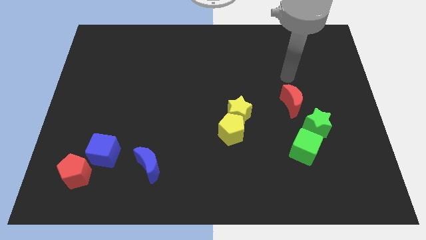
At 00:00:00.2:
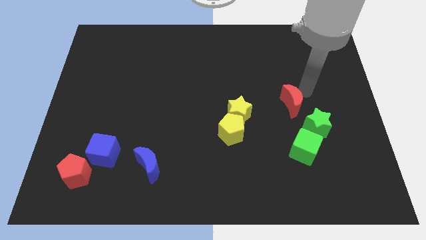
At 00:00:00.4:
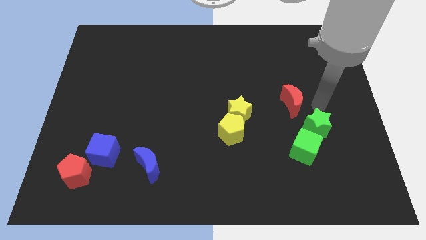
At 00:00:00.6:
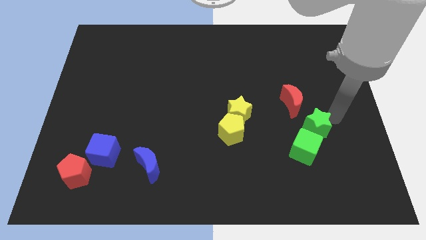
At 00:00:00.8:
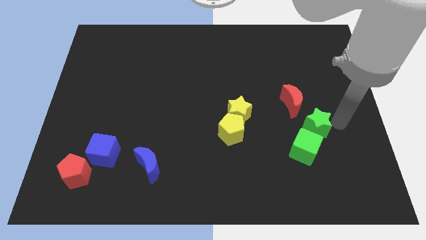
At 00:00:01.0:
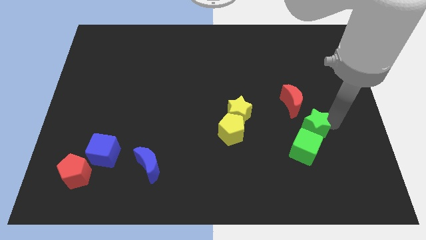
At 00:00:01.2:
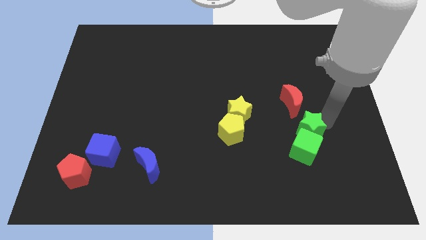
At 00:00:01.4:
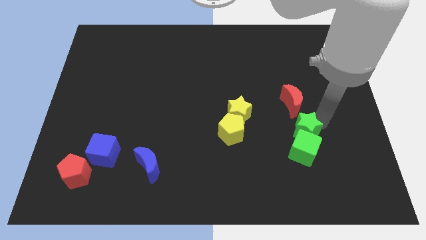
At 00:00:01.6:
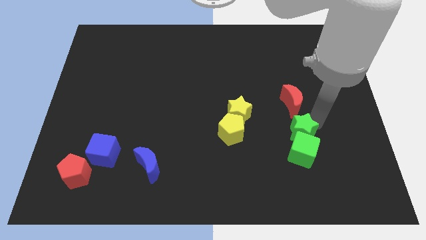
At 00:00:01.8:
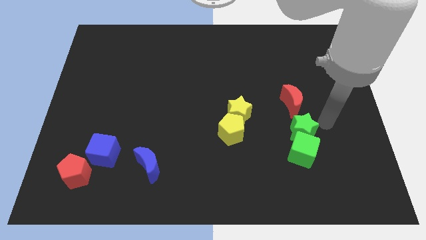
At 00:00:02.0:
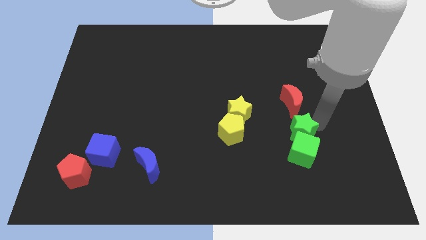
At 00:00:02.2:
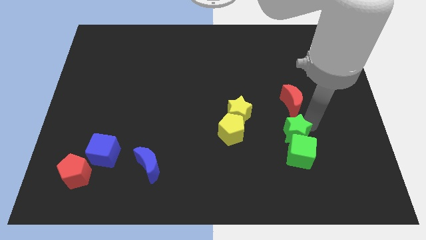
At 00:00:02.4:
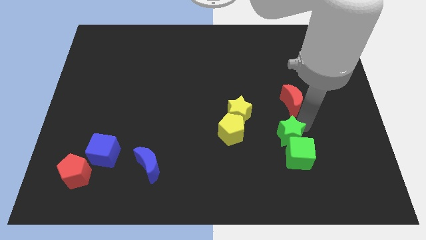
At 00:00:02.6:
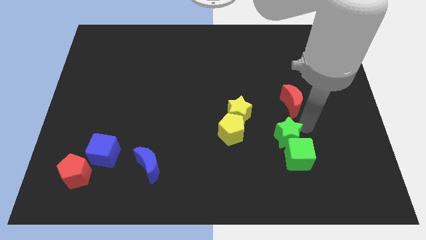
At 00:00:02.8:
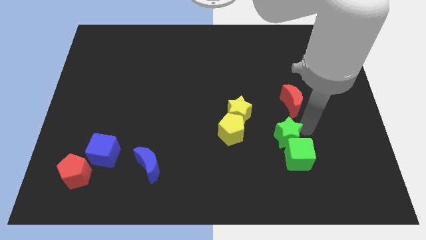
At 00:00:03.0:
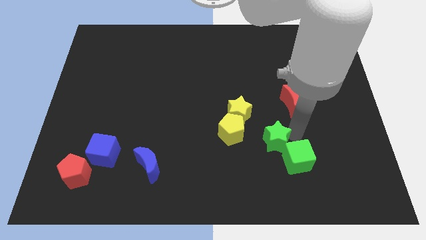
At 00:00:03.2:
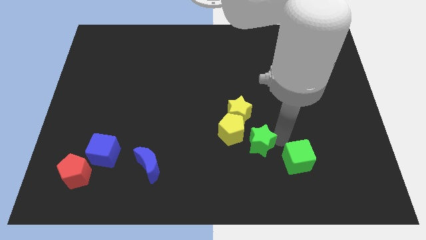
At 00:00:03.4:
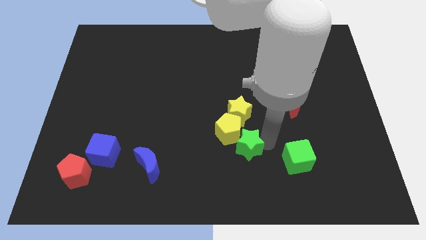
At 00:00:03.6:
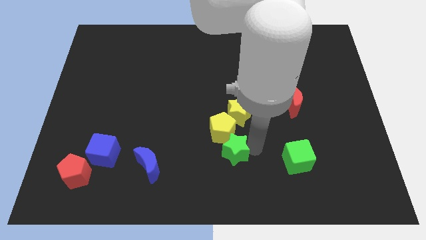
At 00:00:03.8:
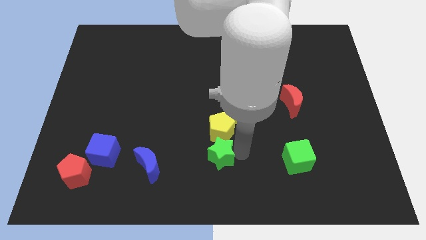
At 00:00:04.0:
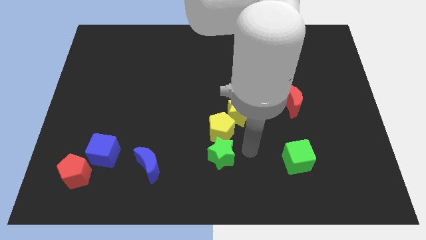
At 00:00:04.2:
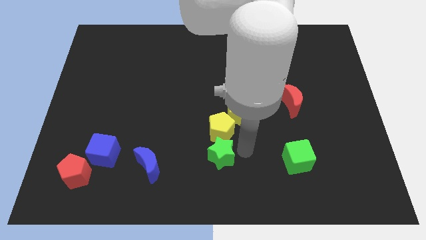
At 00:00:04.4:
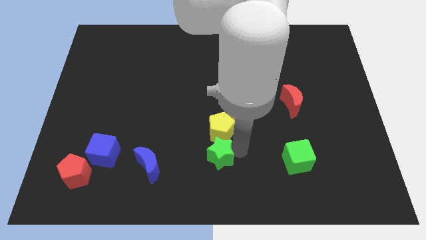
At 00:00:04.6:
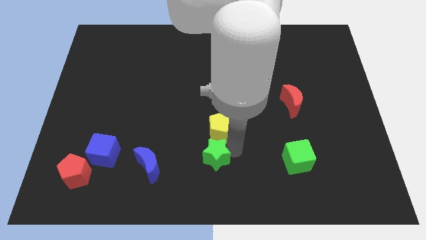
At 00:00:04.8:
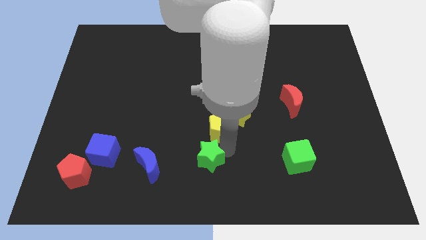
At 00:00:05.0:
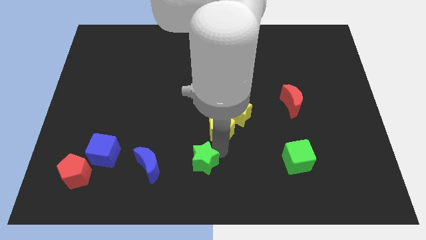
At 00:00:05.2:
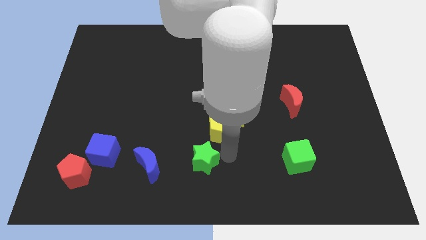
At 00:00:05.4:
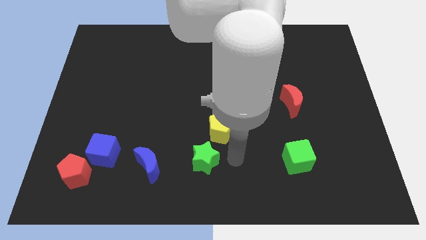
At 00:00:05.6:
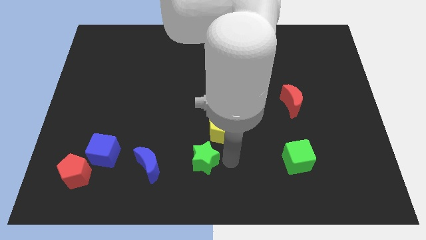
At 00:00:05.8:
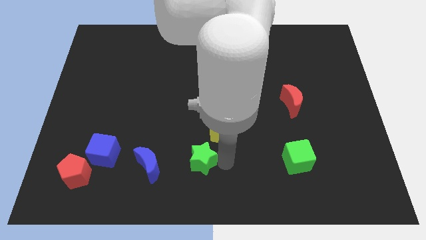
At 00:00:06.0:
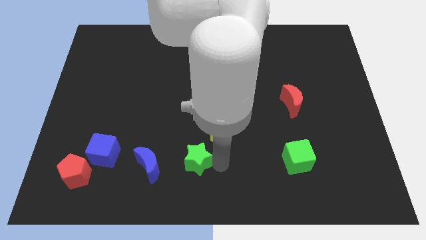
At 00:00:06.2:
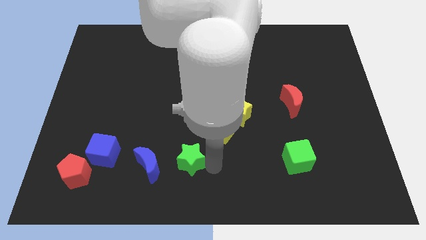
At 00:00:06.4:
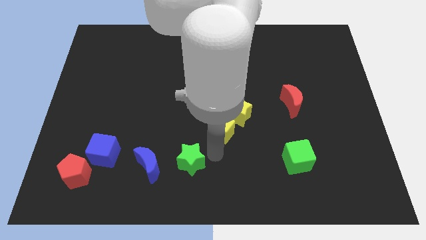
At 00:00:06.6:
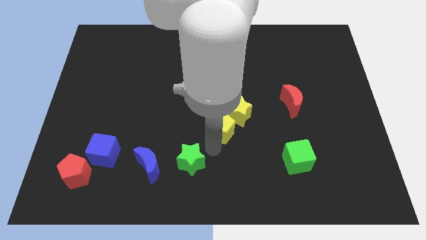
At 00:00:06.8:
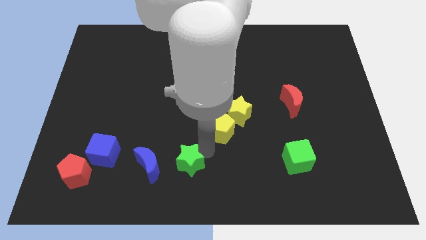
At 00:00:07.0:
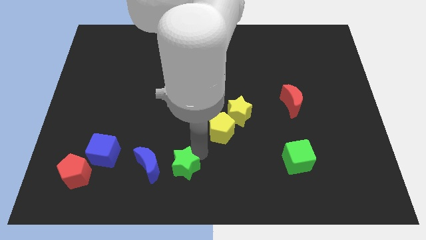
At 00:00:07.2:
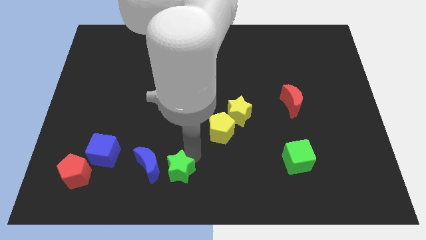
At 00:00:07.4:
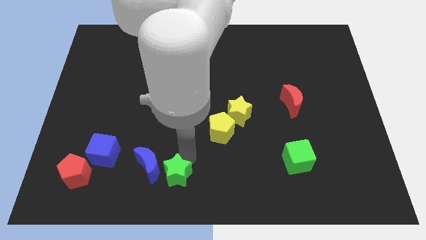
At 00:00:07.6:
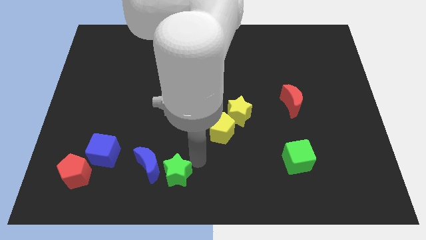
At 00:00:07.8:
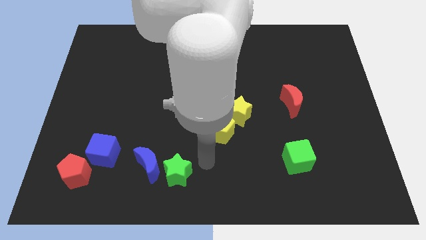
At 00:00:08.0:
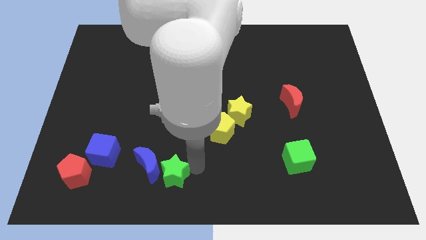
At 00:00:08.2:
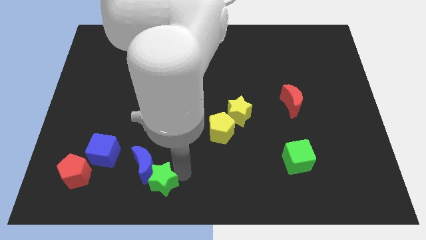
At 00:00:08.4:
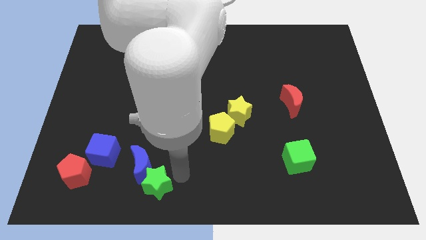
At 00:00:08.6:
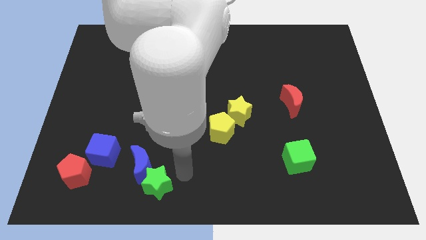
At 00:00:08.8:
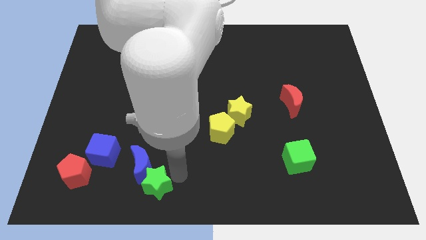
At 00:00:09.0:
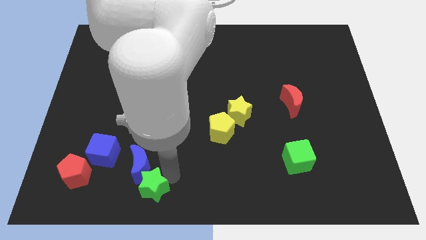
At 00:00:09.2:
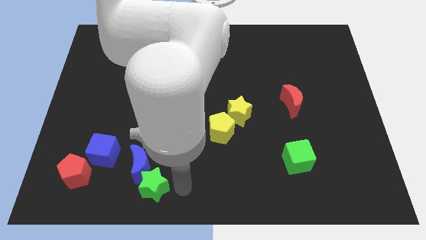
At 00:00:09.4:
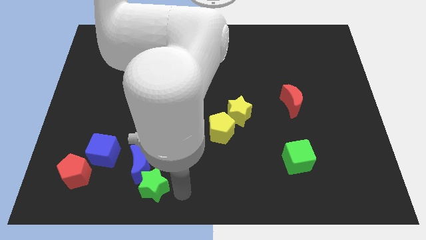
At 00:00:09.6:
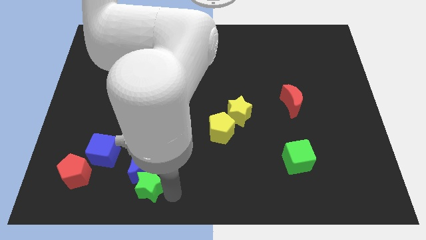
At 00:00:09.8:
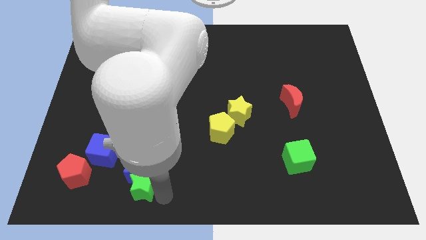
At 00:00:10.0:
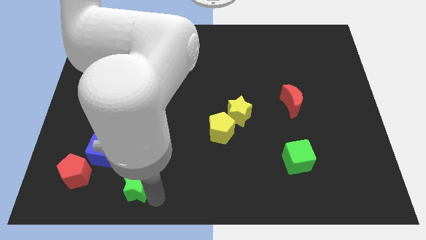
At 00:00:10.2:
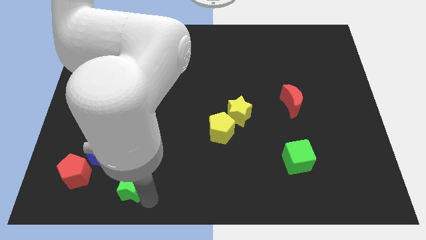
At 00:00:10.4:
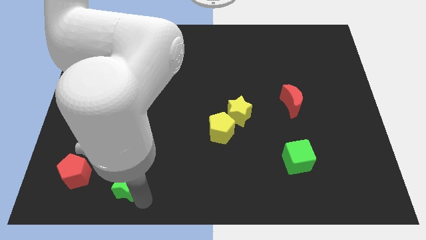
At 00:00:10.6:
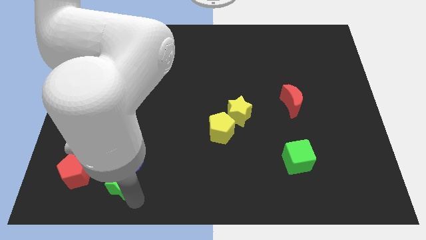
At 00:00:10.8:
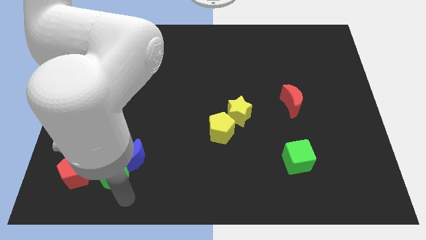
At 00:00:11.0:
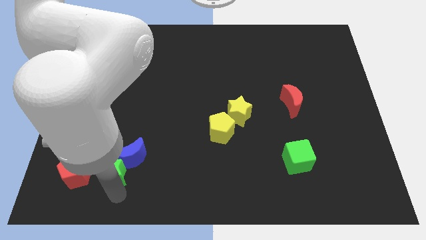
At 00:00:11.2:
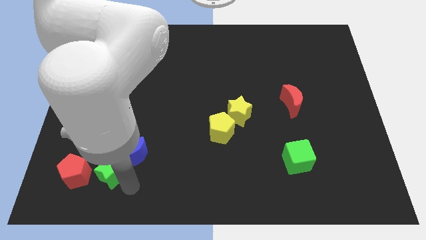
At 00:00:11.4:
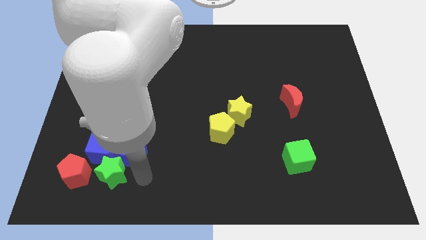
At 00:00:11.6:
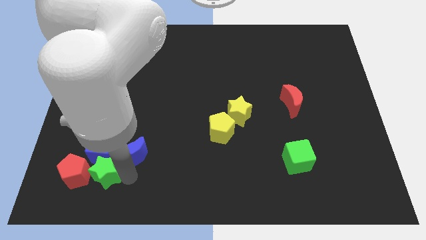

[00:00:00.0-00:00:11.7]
slide the green star close to the red pentagon

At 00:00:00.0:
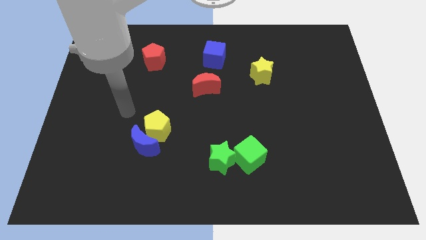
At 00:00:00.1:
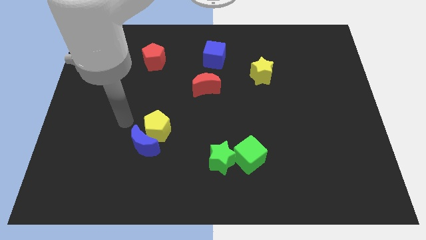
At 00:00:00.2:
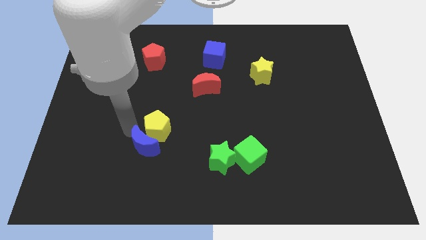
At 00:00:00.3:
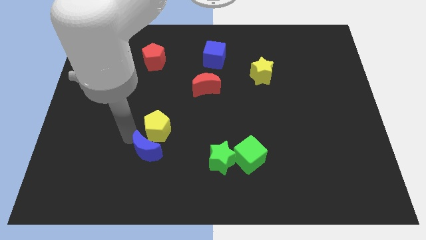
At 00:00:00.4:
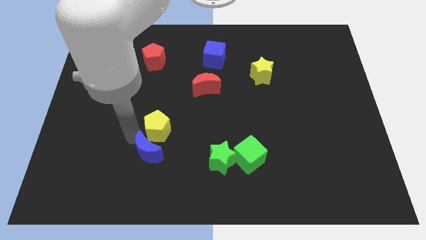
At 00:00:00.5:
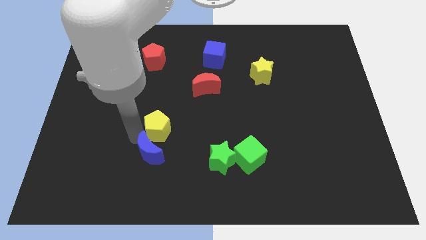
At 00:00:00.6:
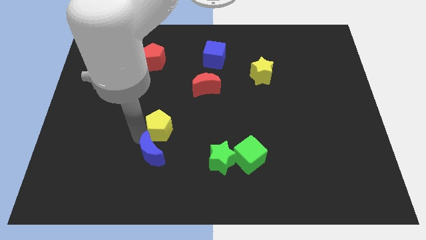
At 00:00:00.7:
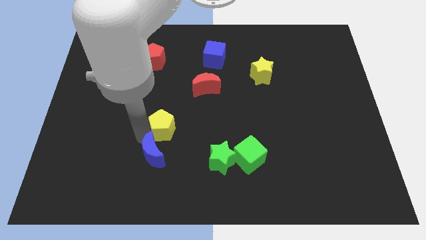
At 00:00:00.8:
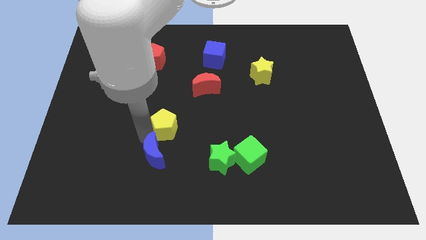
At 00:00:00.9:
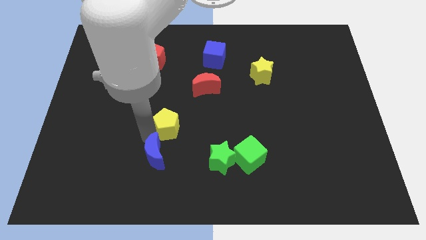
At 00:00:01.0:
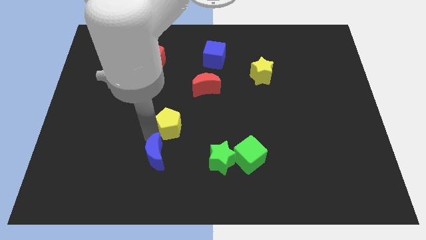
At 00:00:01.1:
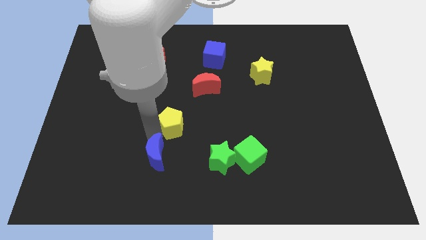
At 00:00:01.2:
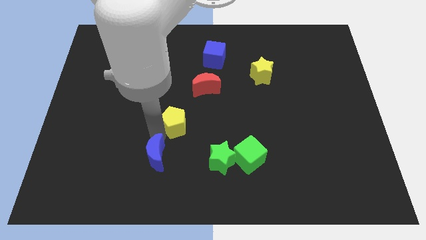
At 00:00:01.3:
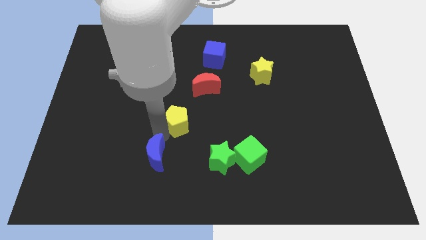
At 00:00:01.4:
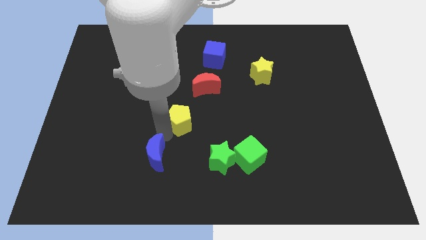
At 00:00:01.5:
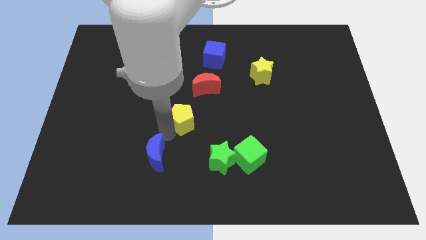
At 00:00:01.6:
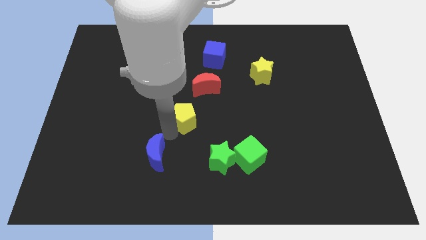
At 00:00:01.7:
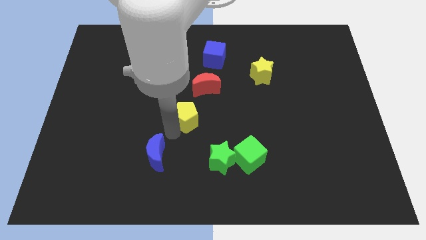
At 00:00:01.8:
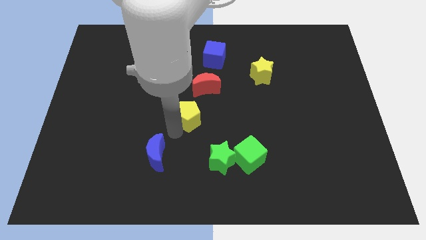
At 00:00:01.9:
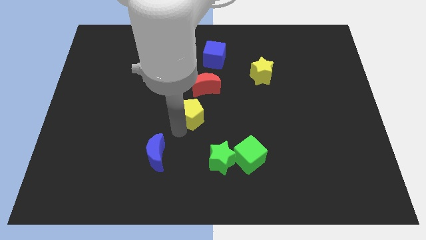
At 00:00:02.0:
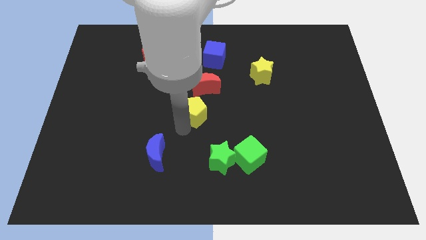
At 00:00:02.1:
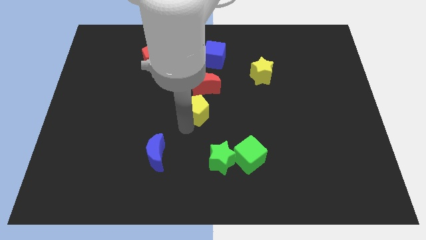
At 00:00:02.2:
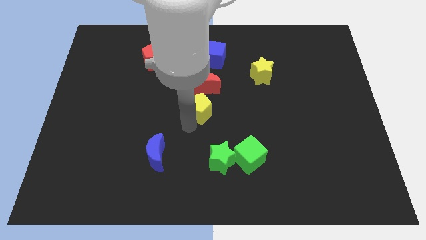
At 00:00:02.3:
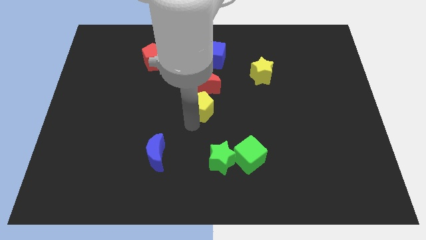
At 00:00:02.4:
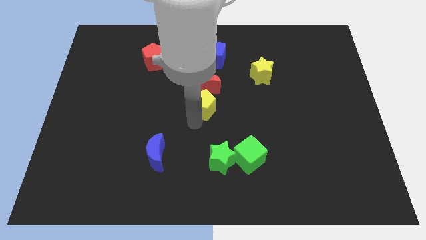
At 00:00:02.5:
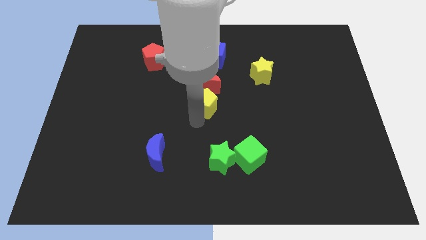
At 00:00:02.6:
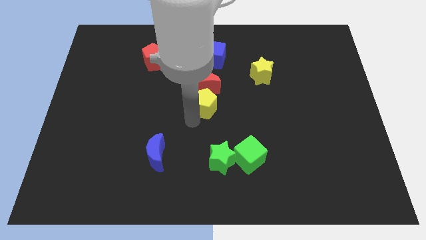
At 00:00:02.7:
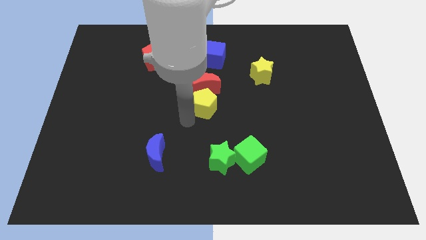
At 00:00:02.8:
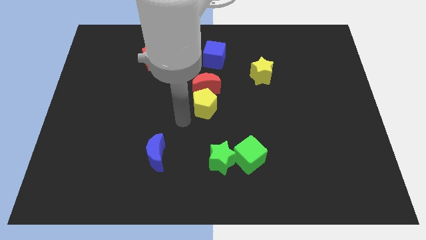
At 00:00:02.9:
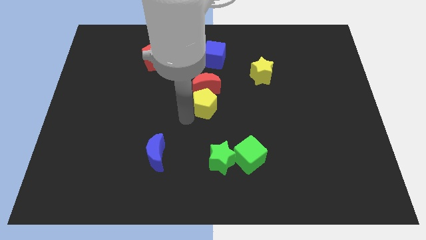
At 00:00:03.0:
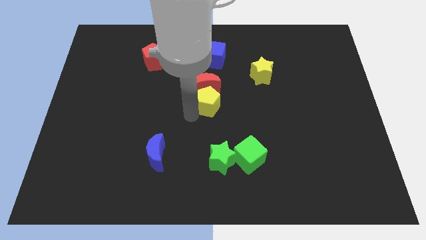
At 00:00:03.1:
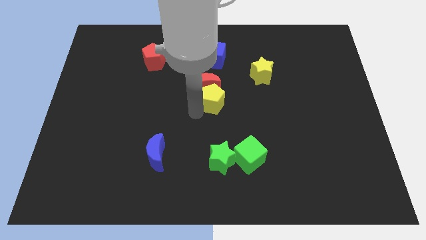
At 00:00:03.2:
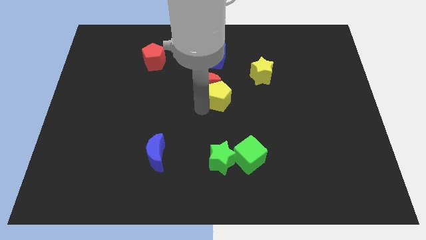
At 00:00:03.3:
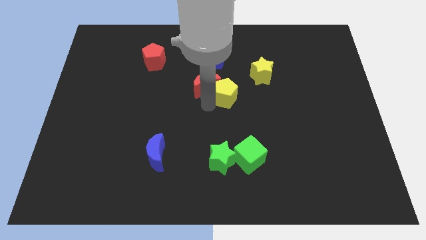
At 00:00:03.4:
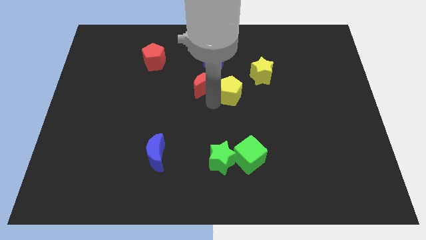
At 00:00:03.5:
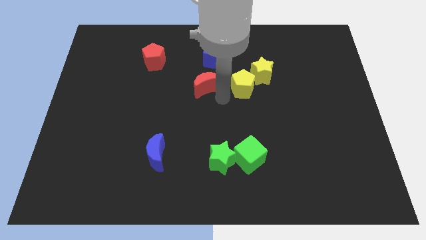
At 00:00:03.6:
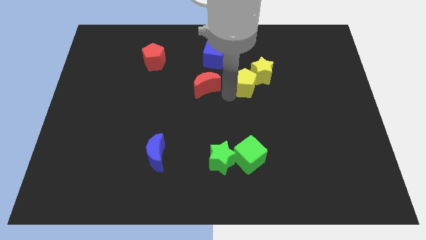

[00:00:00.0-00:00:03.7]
put the yellow pentagon close to the yellow star
